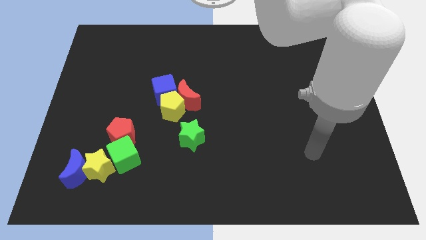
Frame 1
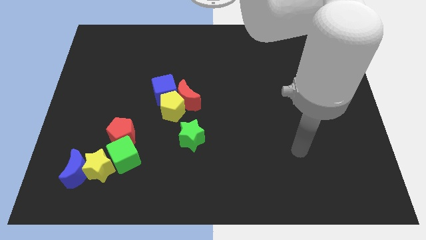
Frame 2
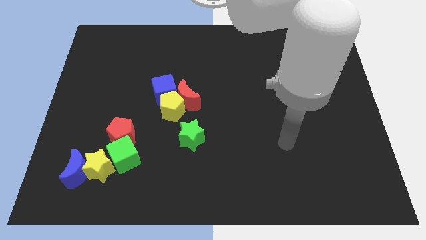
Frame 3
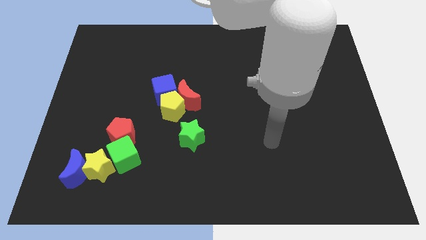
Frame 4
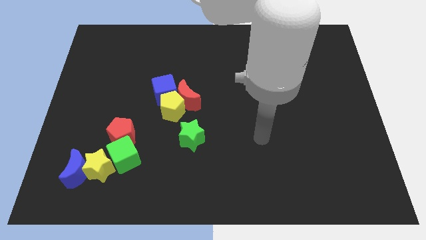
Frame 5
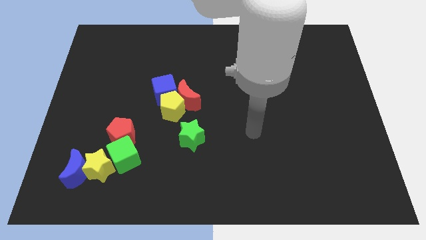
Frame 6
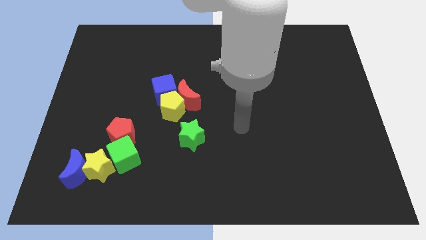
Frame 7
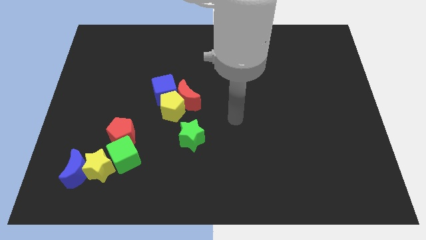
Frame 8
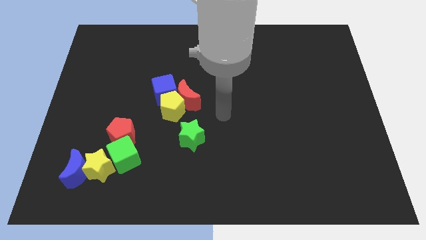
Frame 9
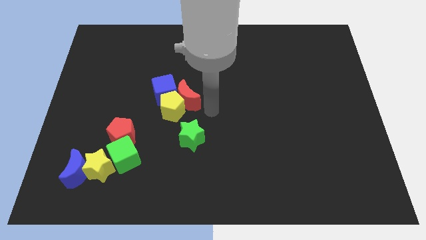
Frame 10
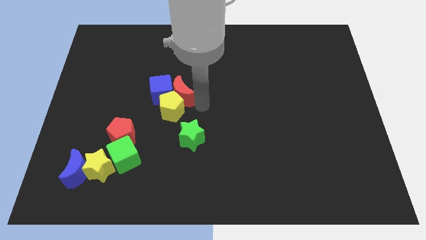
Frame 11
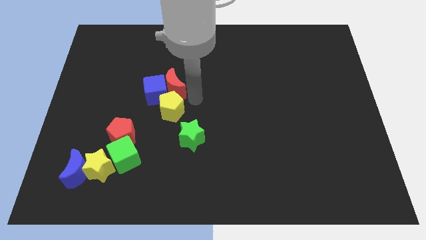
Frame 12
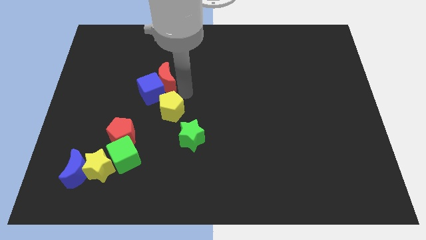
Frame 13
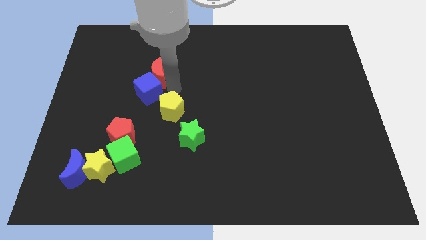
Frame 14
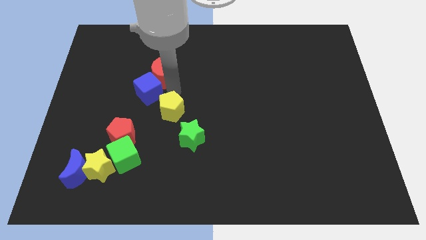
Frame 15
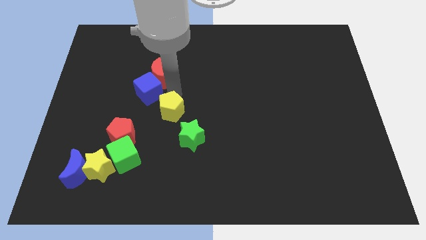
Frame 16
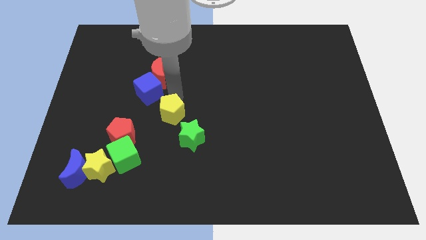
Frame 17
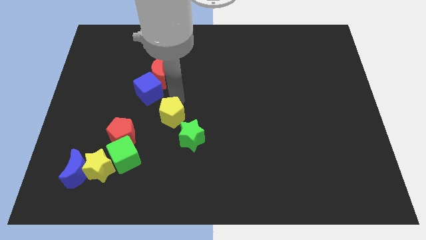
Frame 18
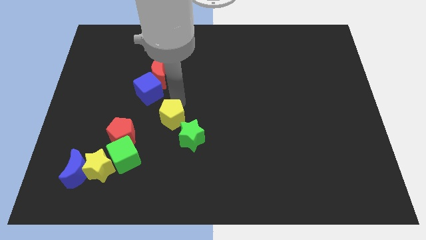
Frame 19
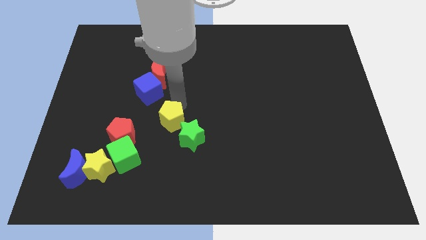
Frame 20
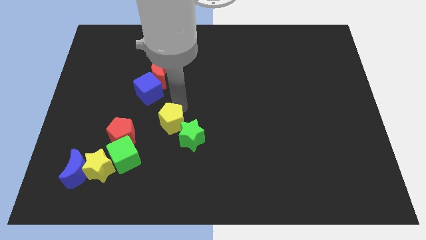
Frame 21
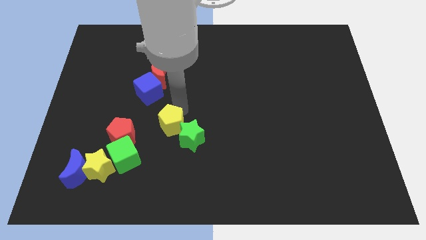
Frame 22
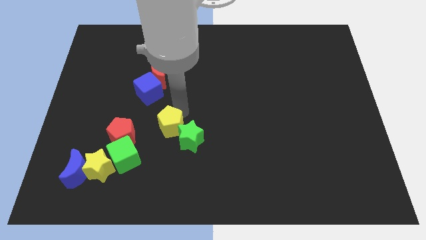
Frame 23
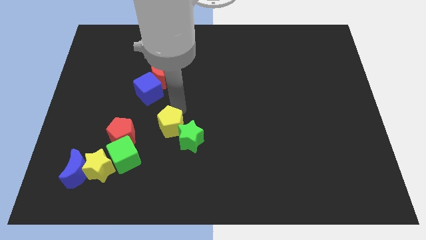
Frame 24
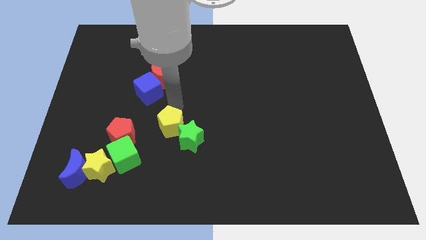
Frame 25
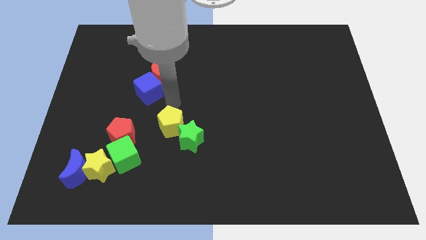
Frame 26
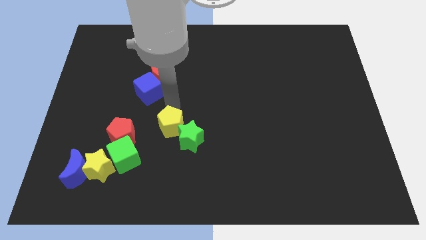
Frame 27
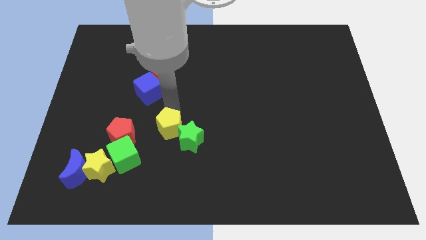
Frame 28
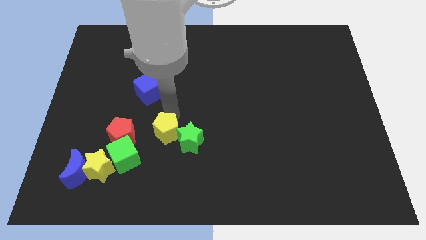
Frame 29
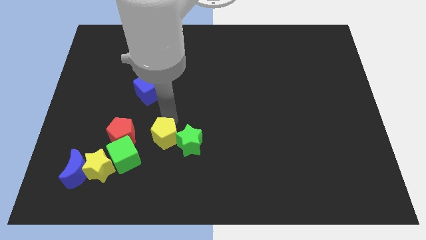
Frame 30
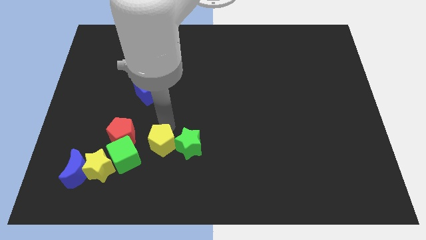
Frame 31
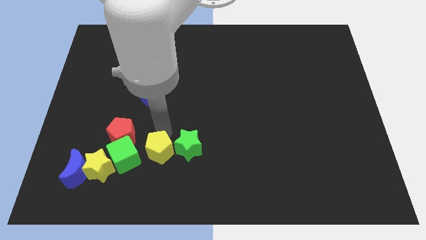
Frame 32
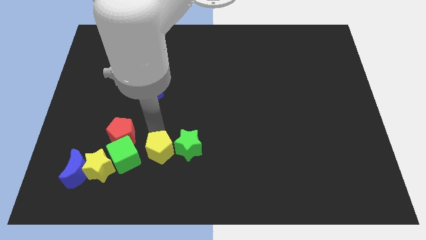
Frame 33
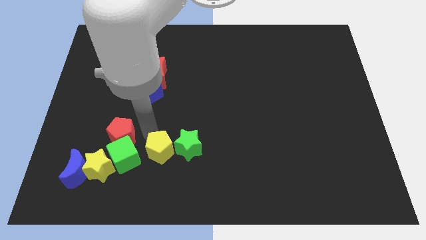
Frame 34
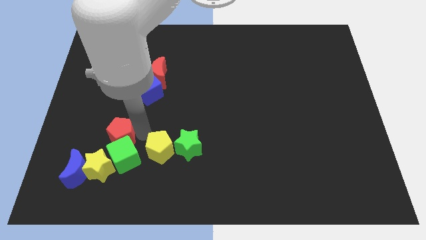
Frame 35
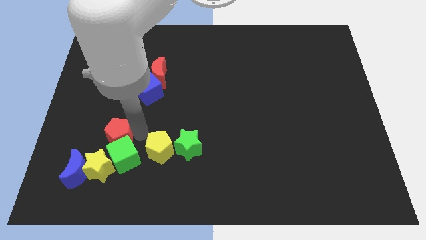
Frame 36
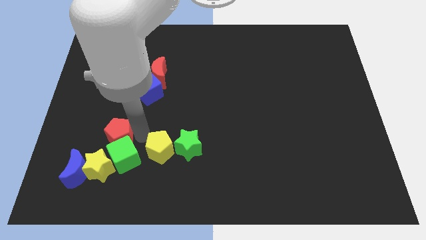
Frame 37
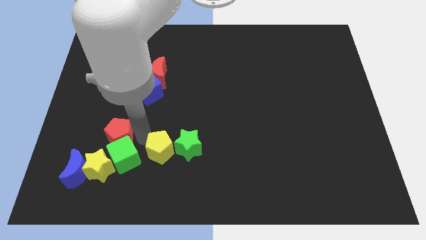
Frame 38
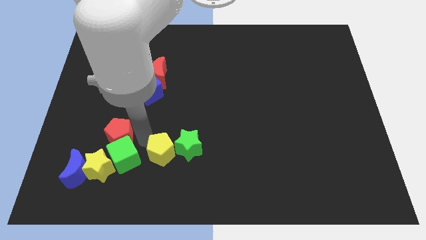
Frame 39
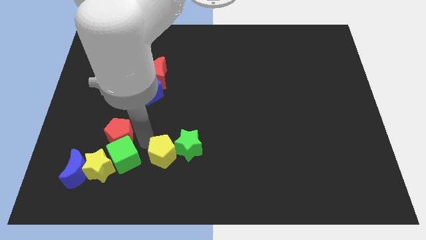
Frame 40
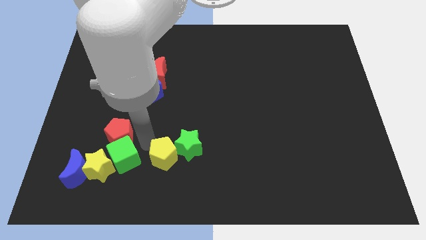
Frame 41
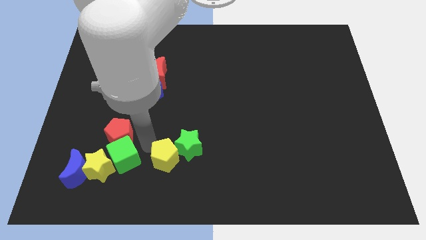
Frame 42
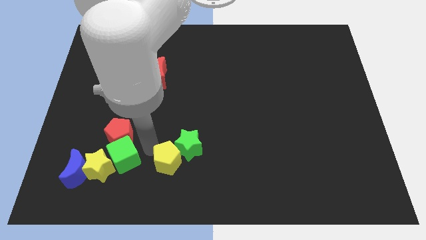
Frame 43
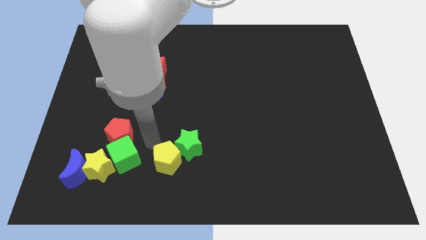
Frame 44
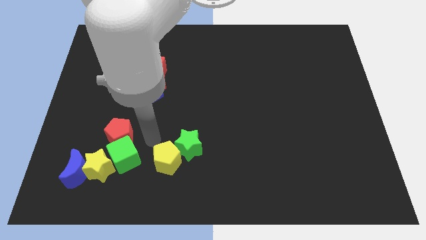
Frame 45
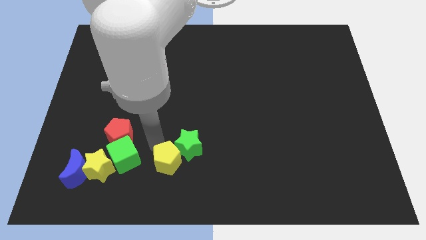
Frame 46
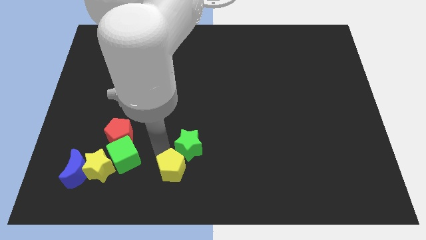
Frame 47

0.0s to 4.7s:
slide the yellow pentagon to the bottom

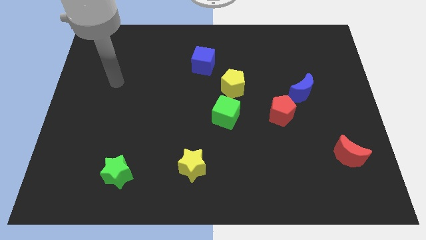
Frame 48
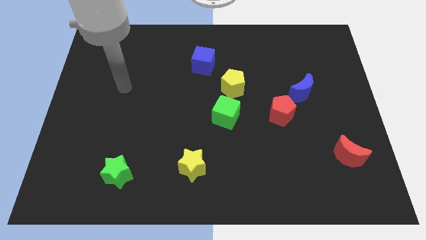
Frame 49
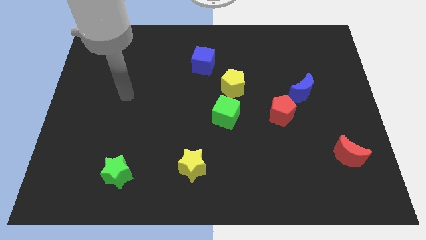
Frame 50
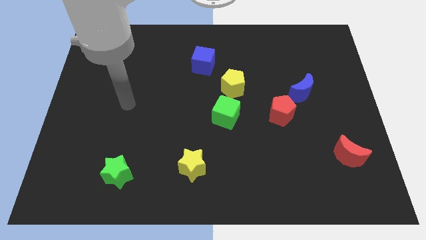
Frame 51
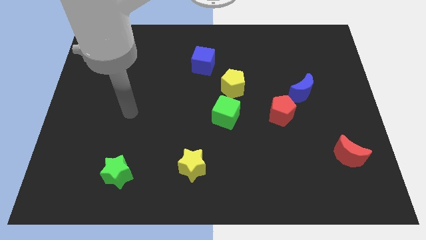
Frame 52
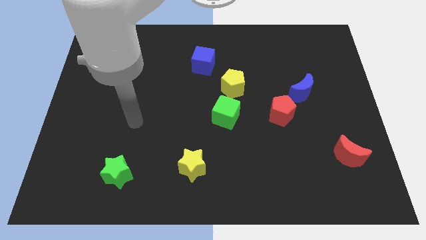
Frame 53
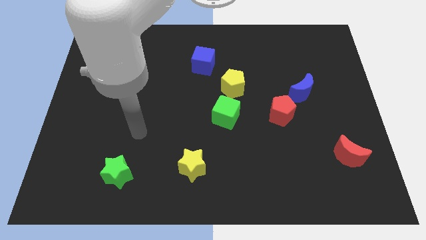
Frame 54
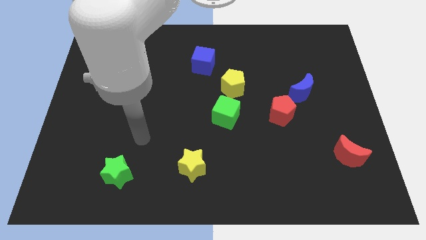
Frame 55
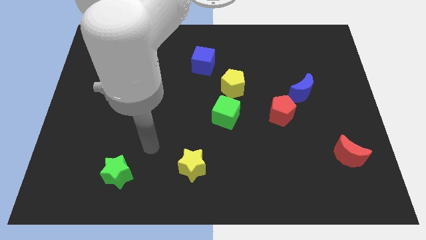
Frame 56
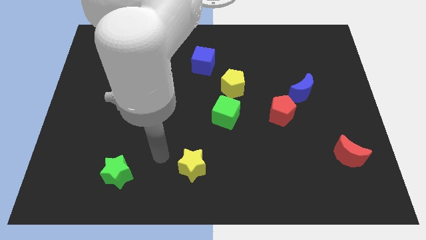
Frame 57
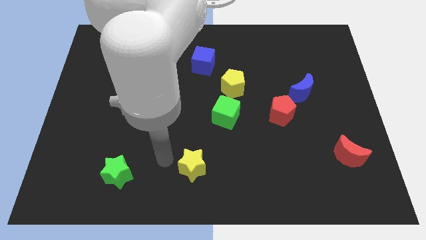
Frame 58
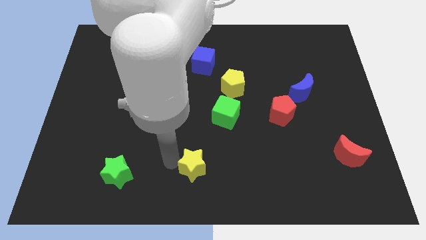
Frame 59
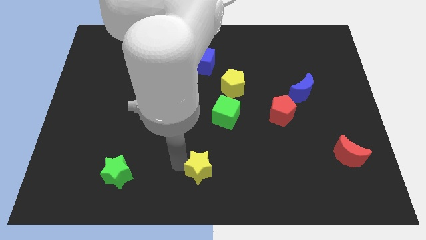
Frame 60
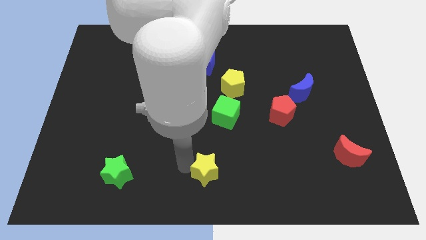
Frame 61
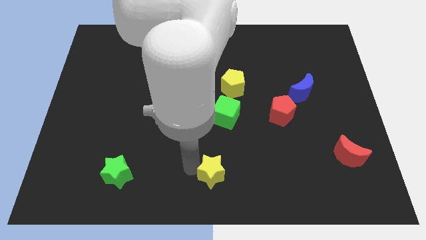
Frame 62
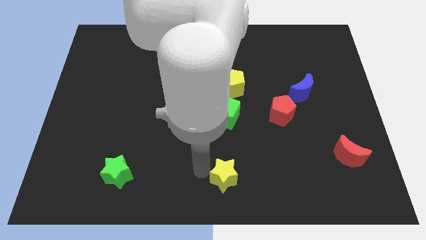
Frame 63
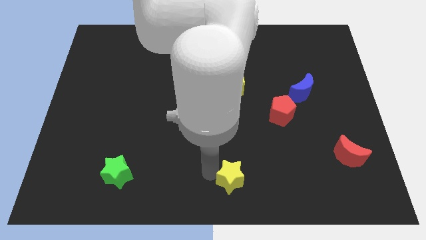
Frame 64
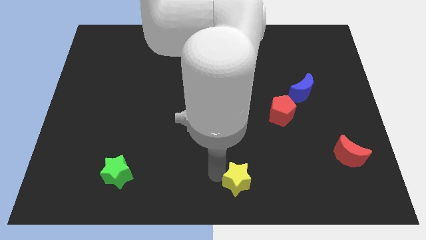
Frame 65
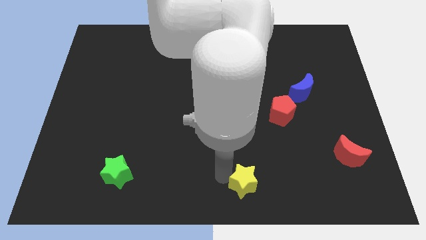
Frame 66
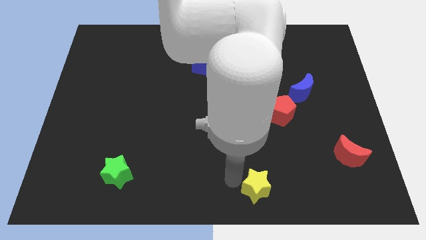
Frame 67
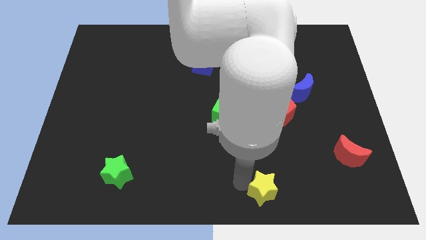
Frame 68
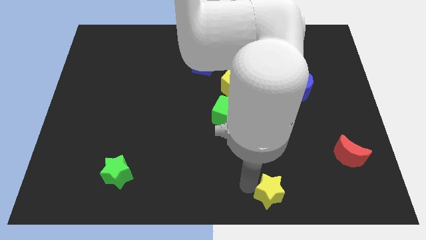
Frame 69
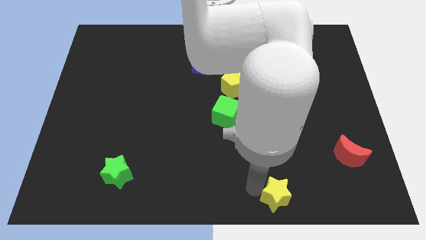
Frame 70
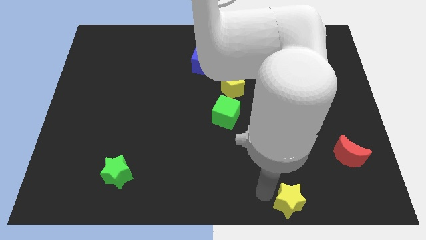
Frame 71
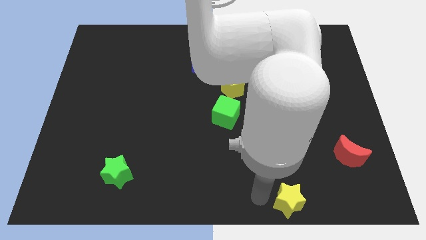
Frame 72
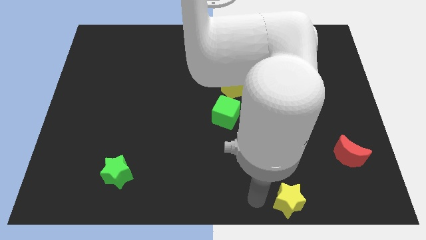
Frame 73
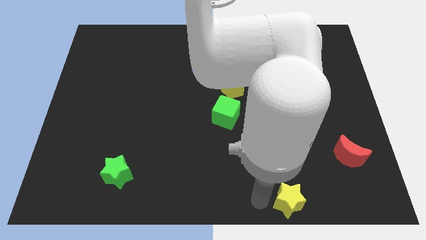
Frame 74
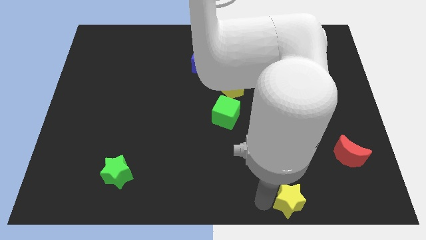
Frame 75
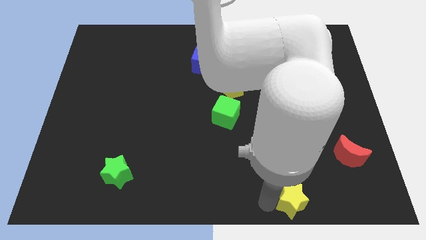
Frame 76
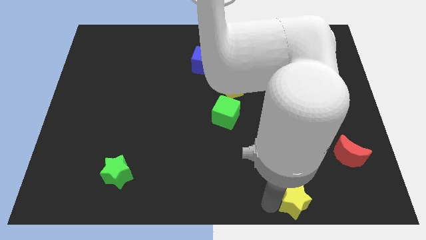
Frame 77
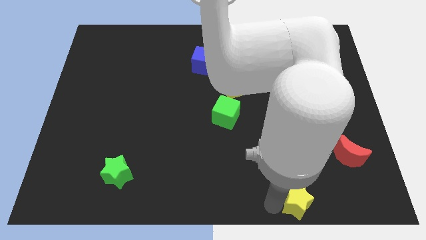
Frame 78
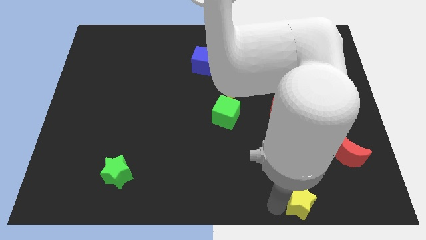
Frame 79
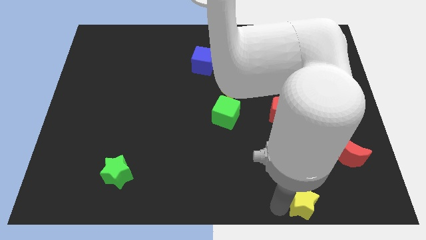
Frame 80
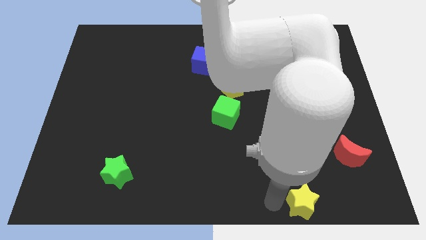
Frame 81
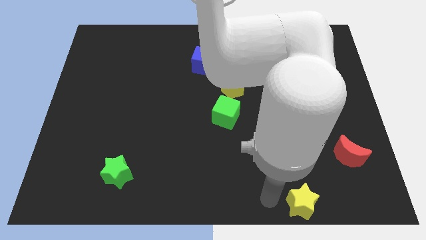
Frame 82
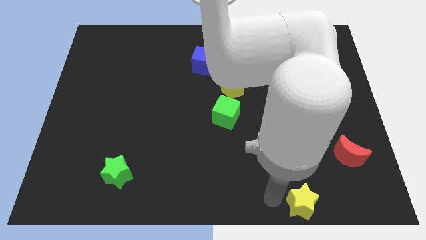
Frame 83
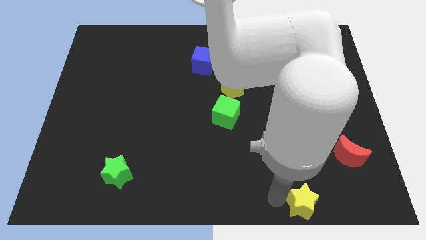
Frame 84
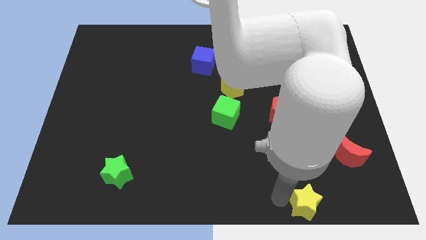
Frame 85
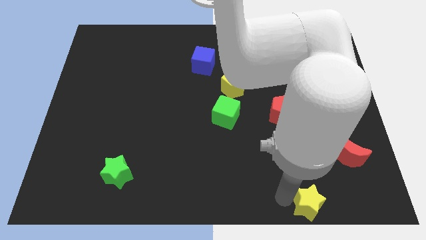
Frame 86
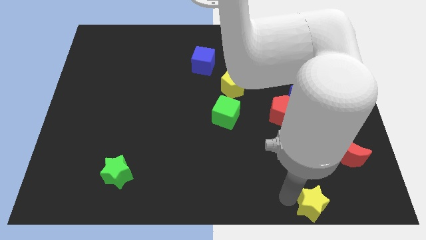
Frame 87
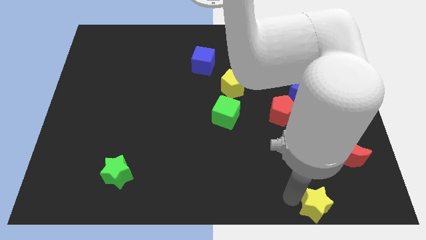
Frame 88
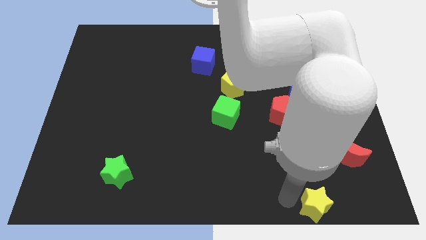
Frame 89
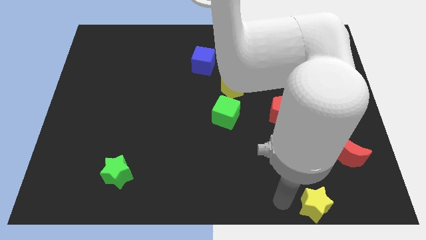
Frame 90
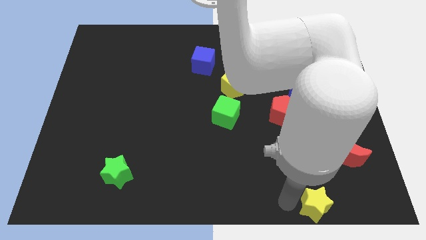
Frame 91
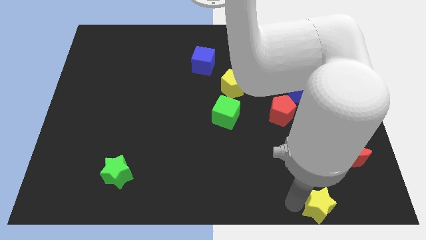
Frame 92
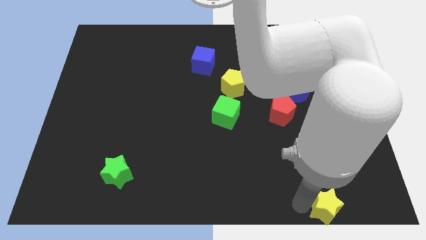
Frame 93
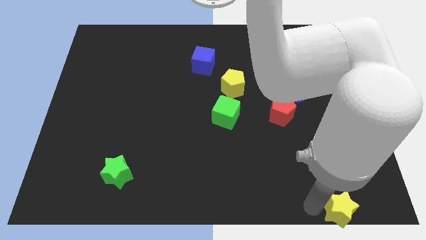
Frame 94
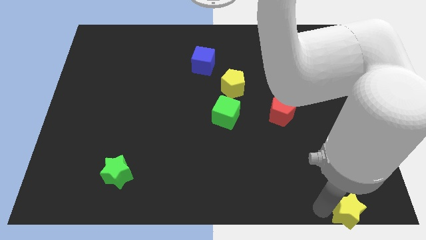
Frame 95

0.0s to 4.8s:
move the yellow star to the bottom right corner
